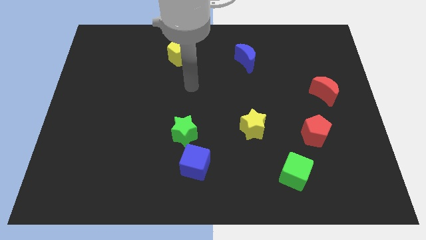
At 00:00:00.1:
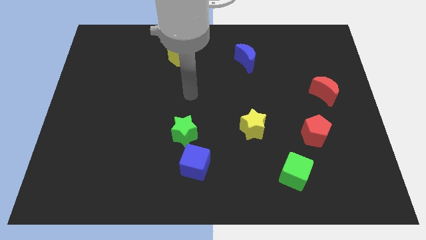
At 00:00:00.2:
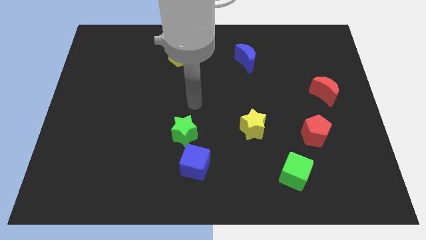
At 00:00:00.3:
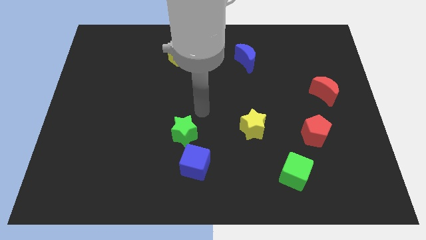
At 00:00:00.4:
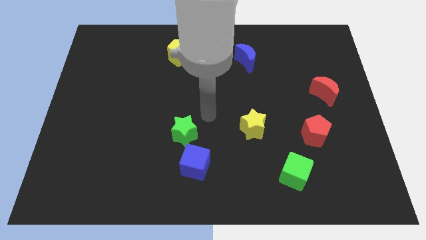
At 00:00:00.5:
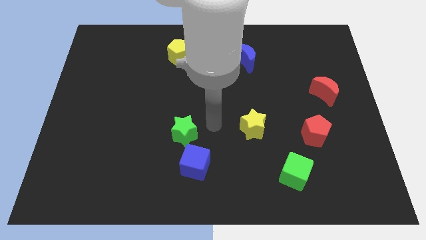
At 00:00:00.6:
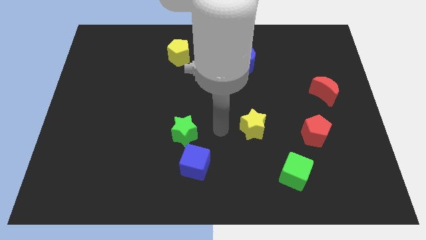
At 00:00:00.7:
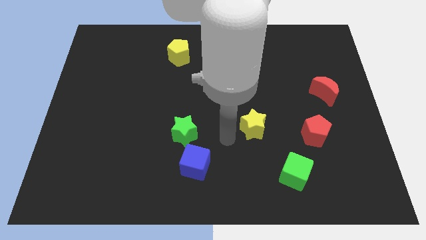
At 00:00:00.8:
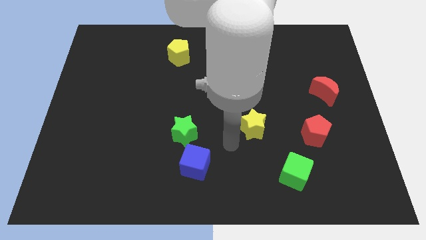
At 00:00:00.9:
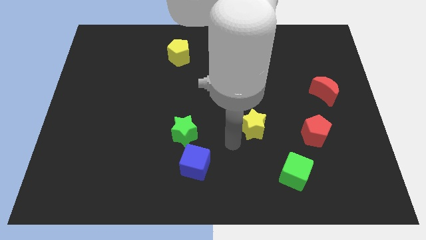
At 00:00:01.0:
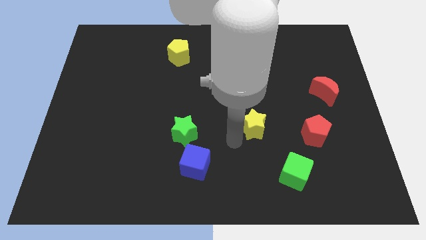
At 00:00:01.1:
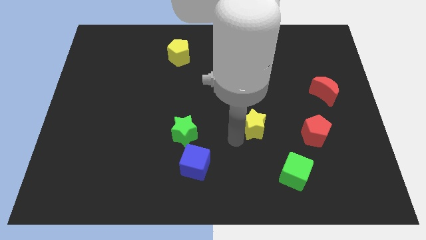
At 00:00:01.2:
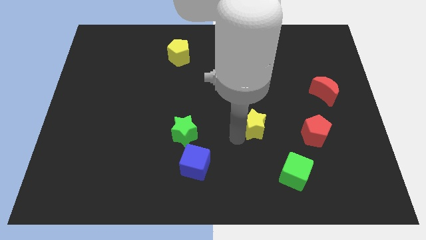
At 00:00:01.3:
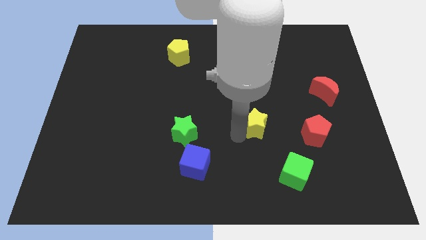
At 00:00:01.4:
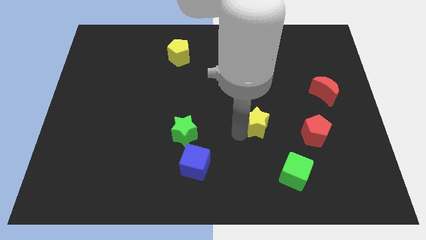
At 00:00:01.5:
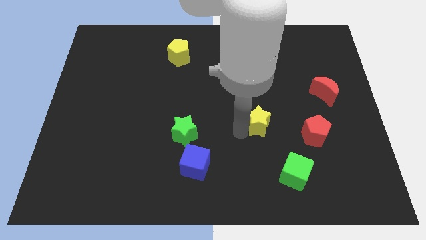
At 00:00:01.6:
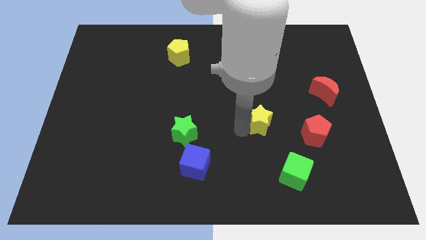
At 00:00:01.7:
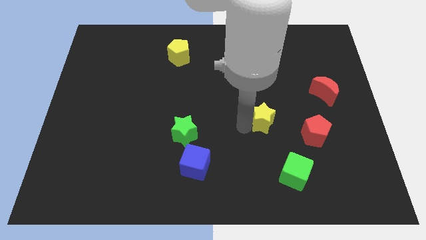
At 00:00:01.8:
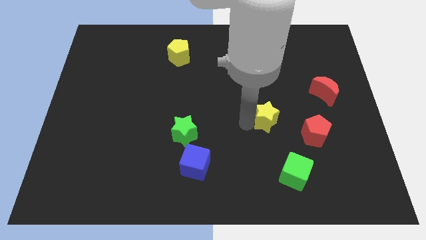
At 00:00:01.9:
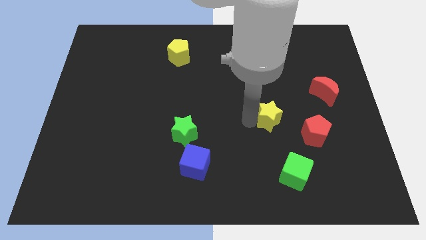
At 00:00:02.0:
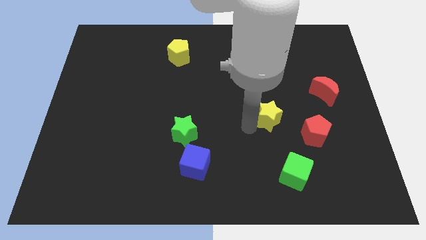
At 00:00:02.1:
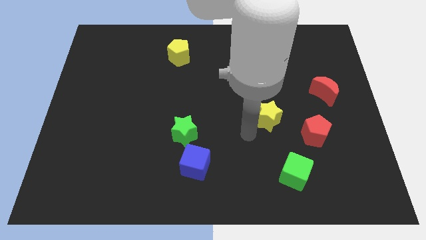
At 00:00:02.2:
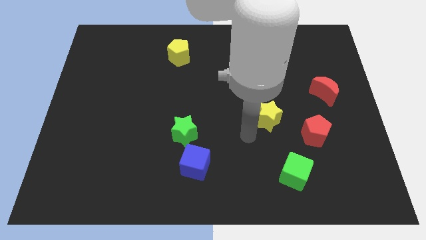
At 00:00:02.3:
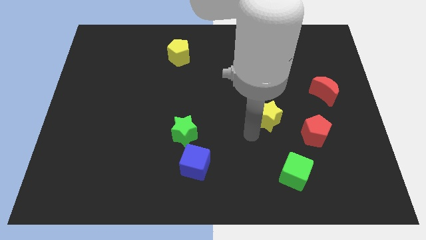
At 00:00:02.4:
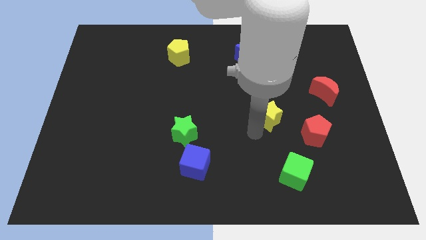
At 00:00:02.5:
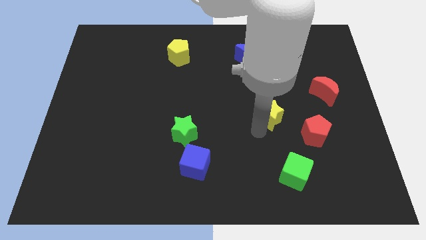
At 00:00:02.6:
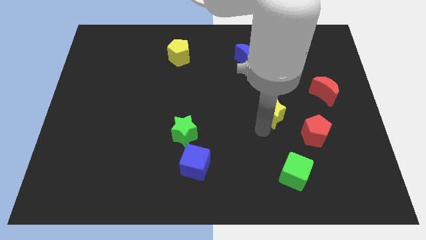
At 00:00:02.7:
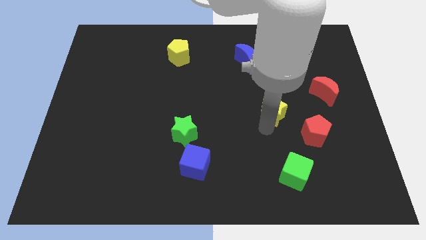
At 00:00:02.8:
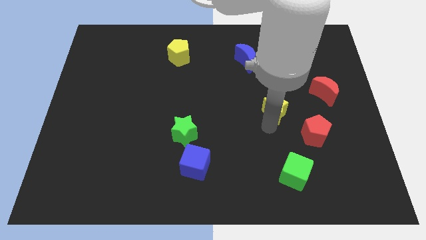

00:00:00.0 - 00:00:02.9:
move the yellow star upwards and then to the right somewhat

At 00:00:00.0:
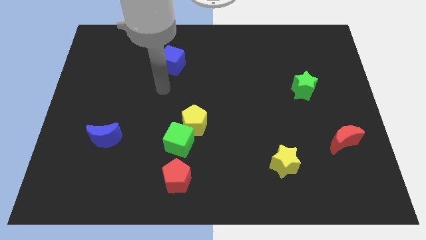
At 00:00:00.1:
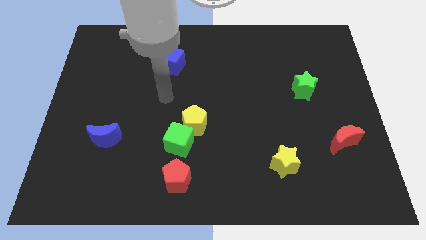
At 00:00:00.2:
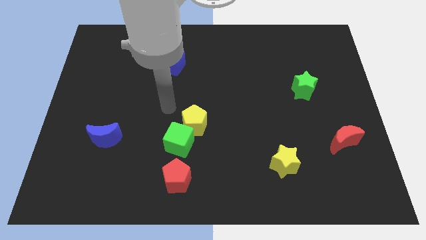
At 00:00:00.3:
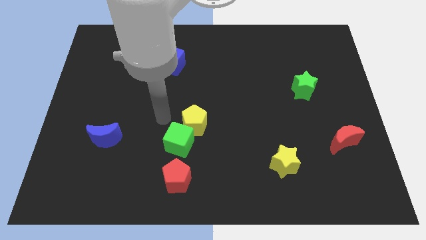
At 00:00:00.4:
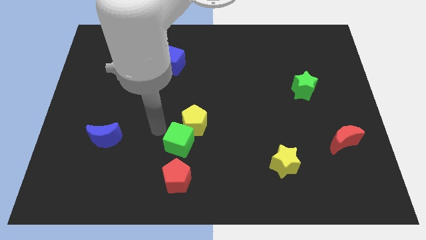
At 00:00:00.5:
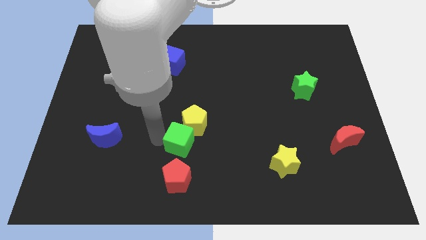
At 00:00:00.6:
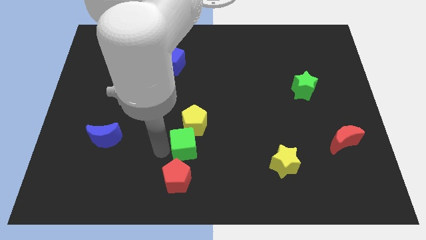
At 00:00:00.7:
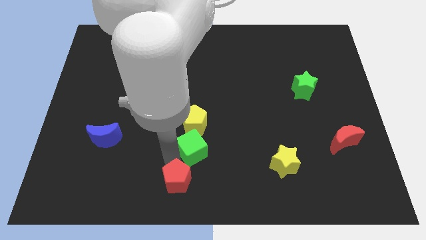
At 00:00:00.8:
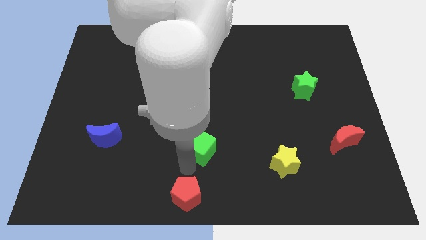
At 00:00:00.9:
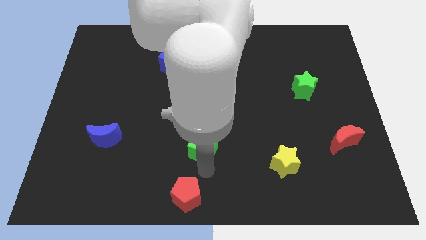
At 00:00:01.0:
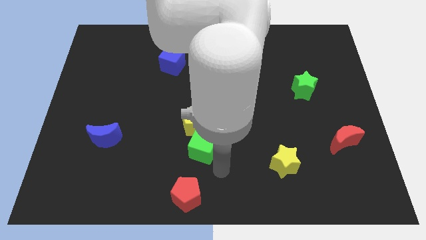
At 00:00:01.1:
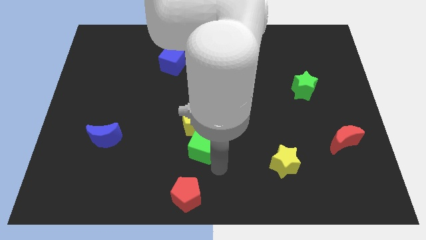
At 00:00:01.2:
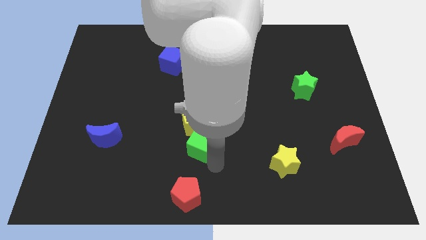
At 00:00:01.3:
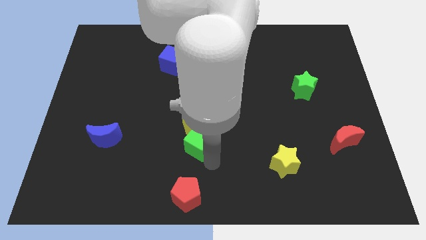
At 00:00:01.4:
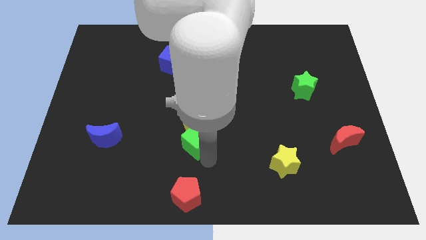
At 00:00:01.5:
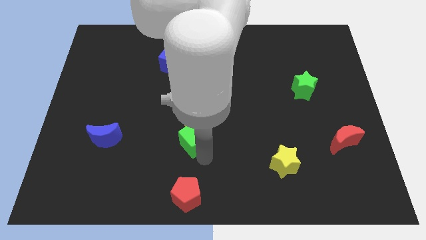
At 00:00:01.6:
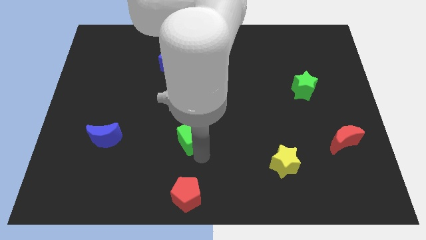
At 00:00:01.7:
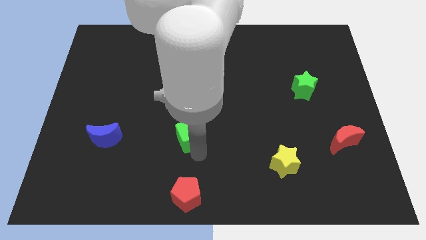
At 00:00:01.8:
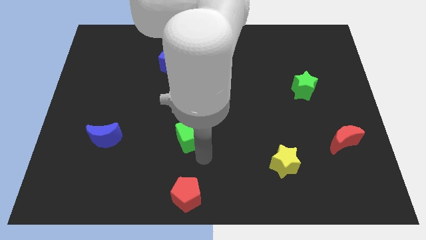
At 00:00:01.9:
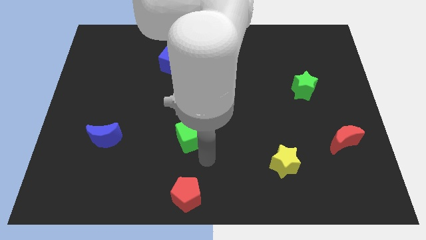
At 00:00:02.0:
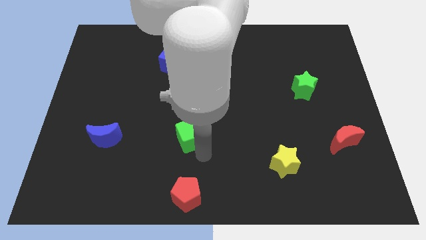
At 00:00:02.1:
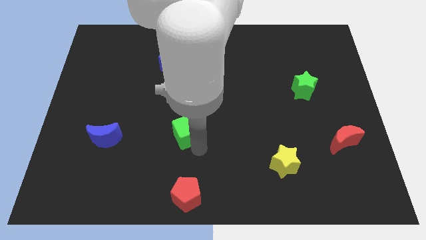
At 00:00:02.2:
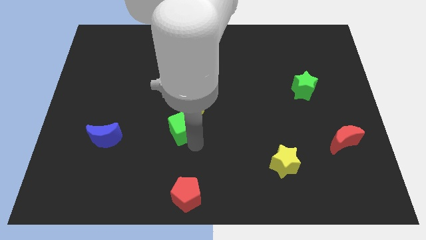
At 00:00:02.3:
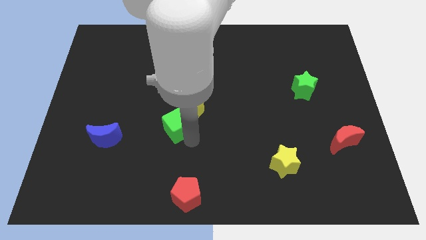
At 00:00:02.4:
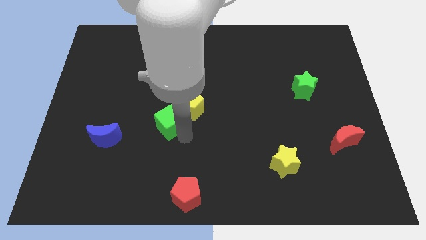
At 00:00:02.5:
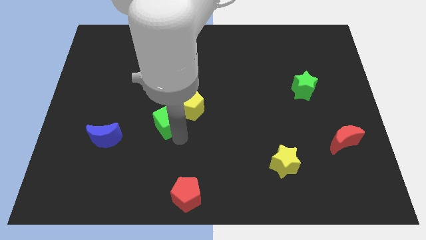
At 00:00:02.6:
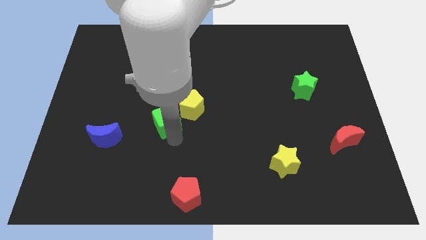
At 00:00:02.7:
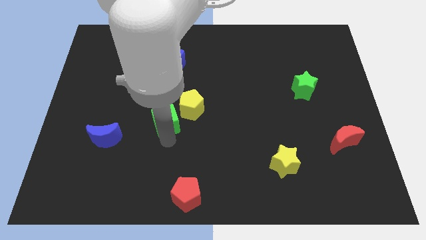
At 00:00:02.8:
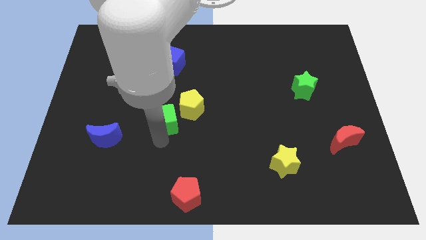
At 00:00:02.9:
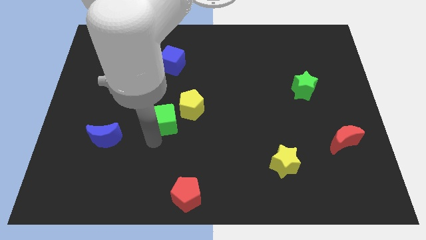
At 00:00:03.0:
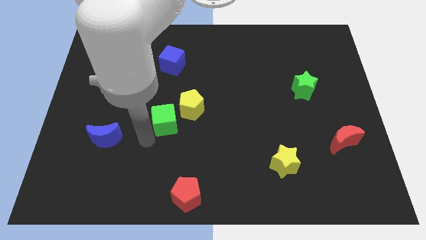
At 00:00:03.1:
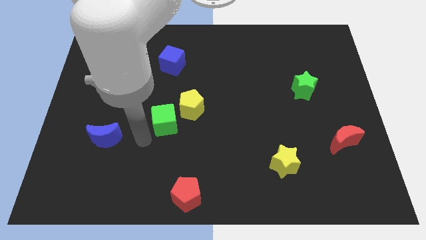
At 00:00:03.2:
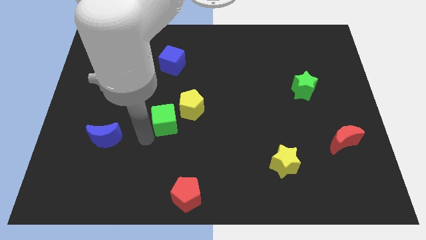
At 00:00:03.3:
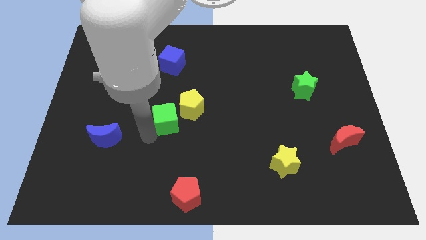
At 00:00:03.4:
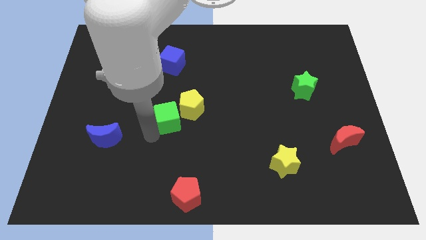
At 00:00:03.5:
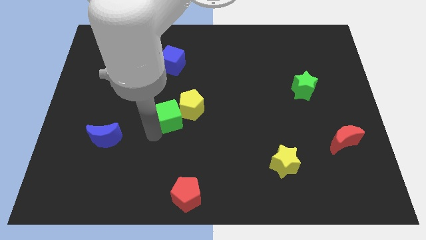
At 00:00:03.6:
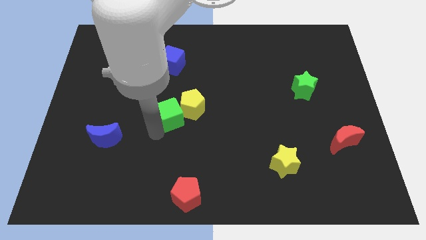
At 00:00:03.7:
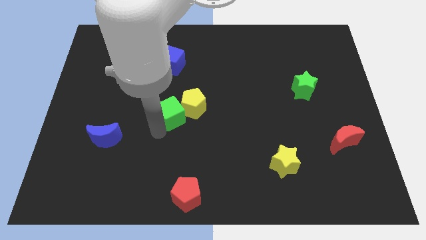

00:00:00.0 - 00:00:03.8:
move the green cube upwards slightly

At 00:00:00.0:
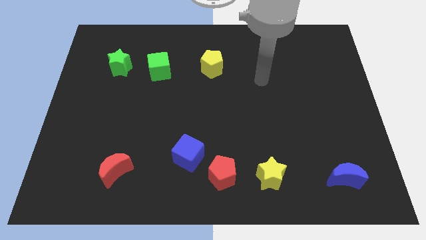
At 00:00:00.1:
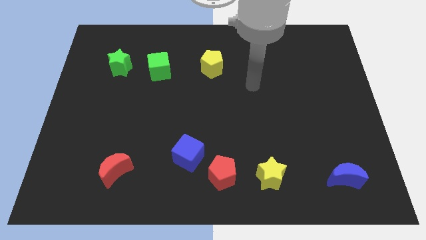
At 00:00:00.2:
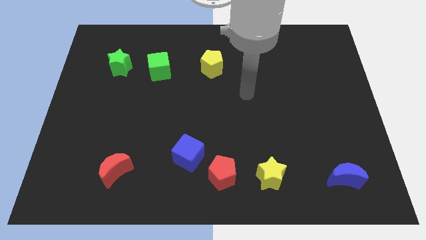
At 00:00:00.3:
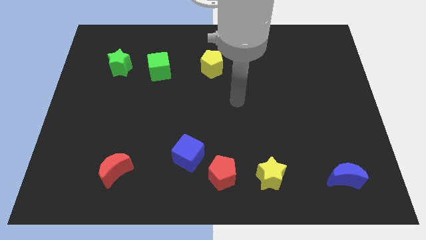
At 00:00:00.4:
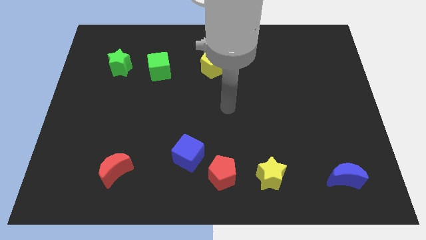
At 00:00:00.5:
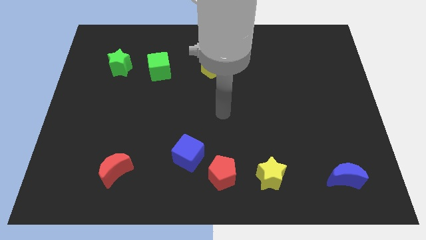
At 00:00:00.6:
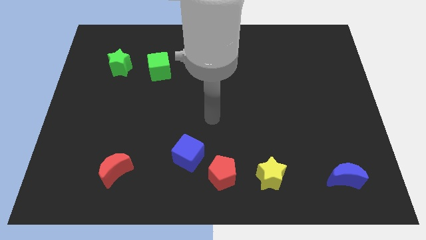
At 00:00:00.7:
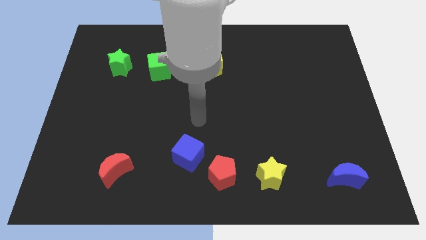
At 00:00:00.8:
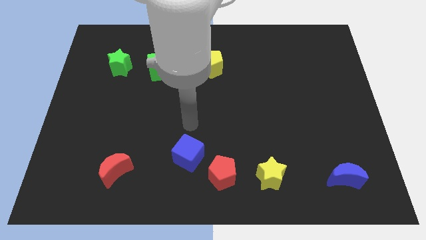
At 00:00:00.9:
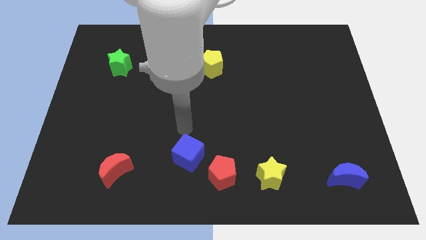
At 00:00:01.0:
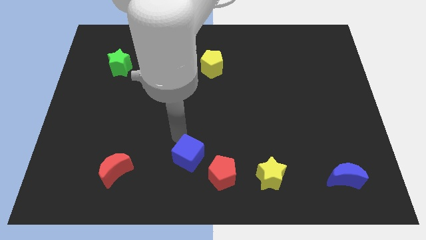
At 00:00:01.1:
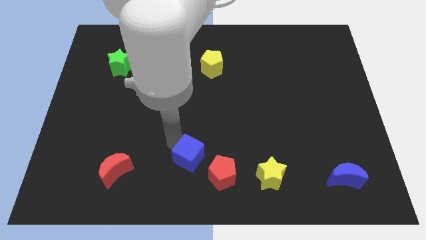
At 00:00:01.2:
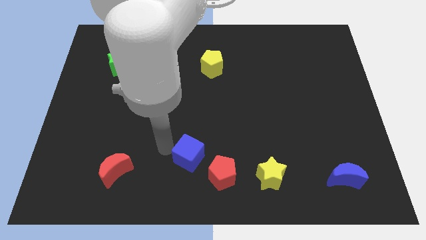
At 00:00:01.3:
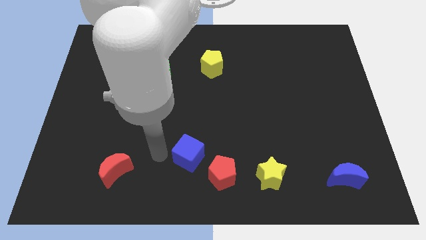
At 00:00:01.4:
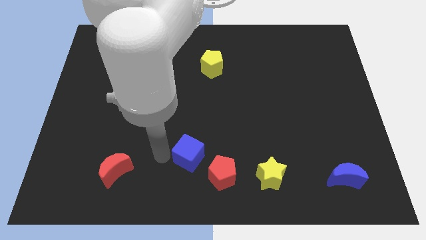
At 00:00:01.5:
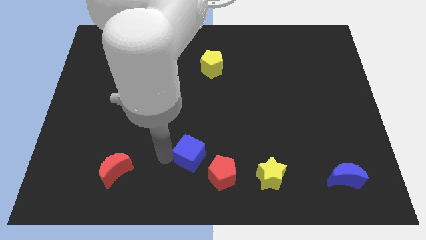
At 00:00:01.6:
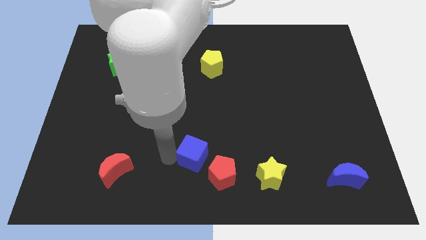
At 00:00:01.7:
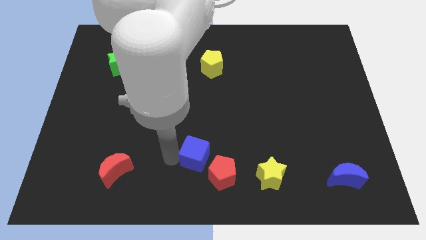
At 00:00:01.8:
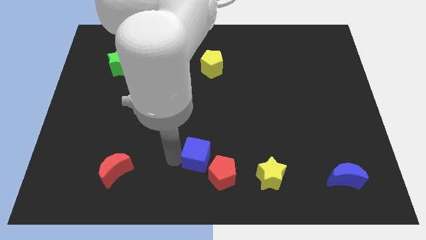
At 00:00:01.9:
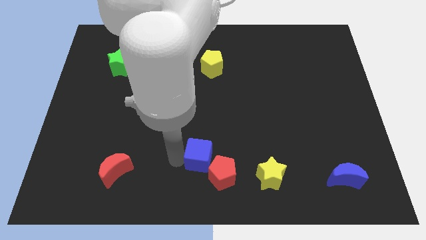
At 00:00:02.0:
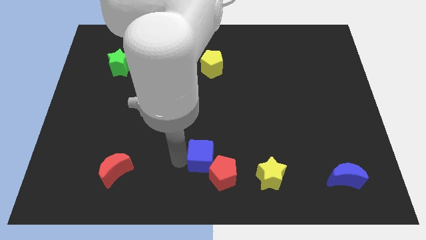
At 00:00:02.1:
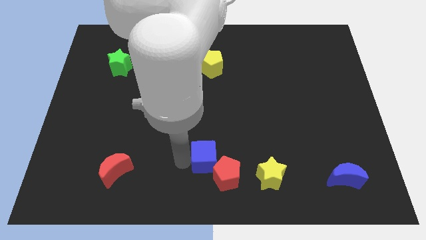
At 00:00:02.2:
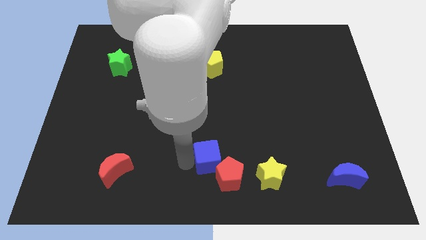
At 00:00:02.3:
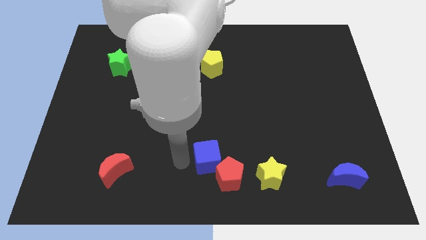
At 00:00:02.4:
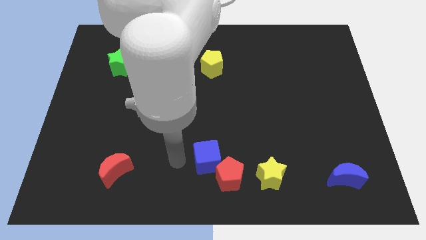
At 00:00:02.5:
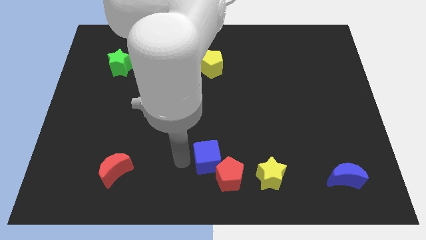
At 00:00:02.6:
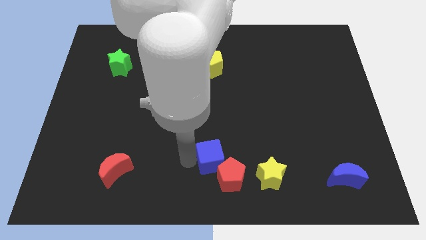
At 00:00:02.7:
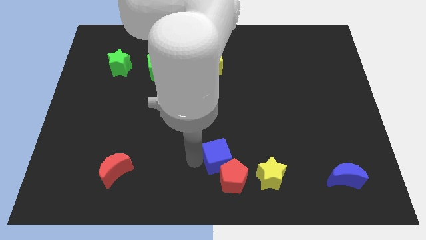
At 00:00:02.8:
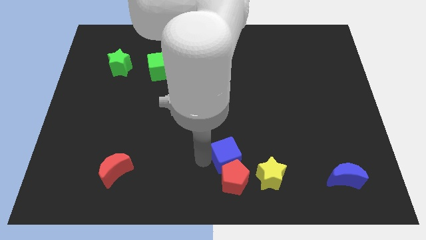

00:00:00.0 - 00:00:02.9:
slightly push the blue cube right
